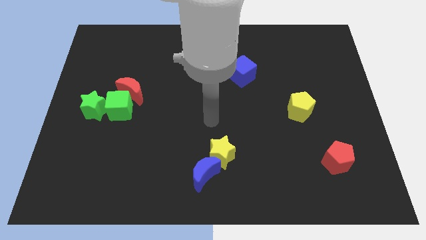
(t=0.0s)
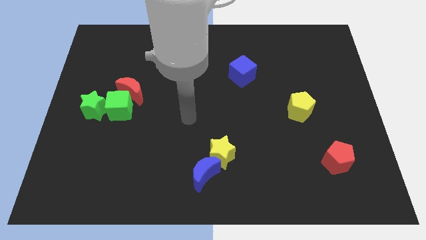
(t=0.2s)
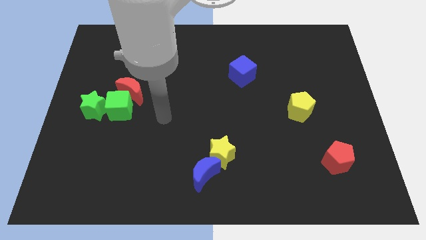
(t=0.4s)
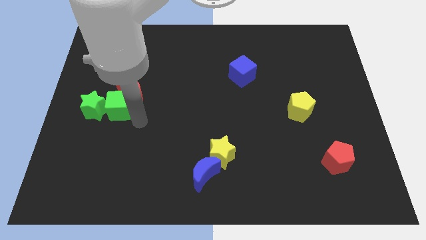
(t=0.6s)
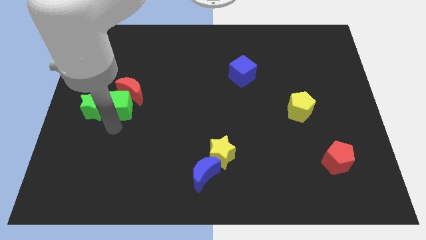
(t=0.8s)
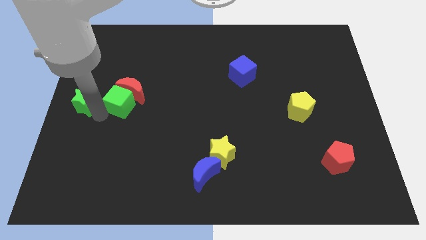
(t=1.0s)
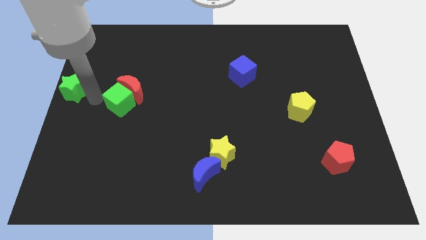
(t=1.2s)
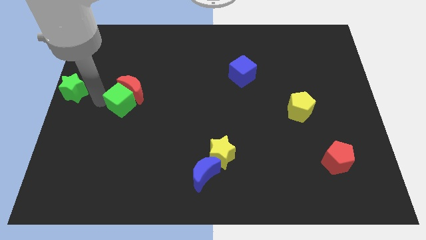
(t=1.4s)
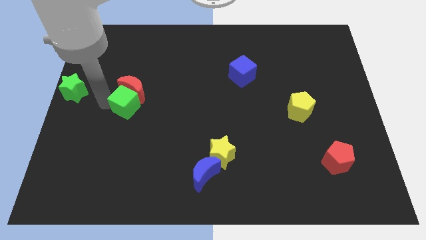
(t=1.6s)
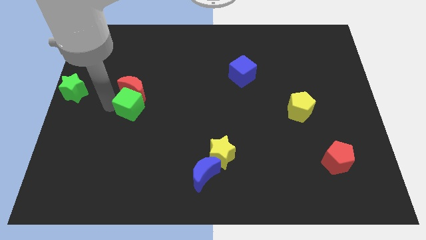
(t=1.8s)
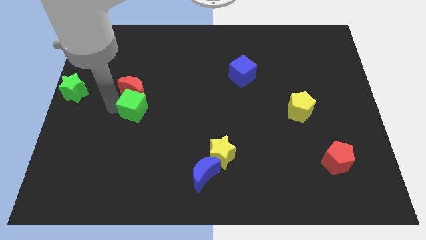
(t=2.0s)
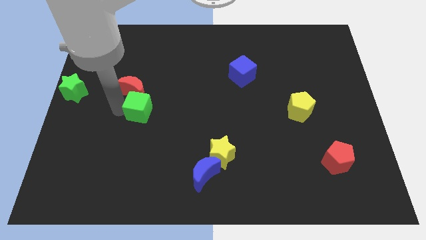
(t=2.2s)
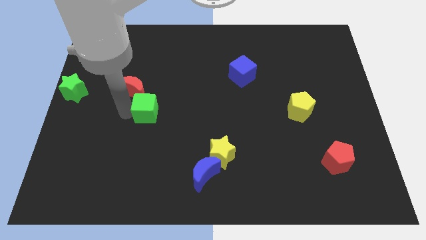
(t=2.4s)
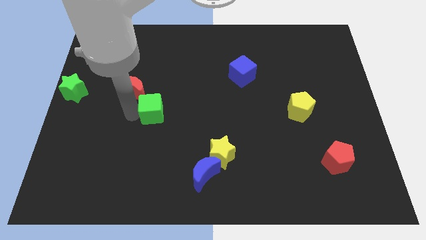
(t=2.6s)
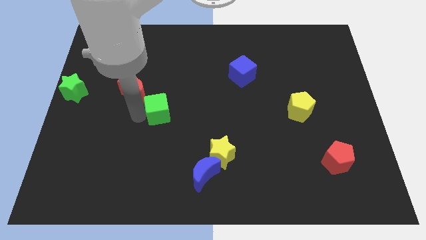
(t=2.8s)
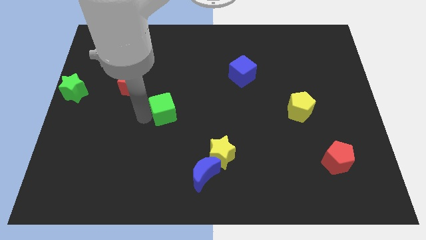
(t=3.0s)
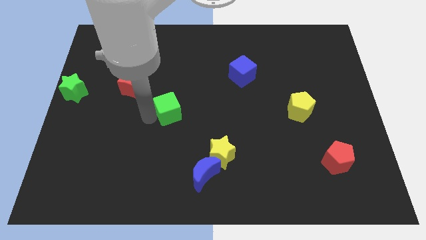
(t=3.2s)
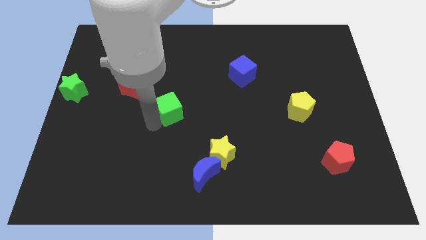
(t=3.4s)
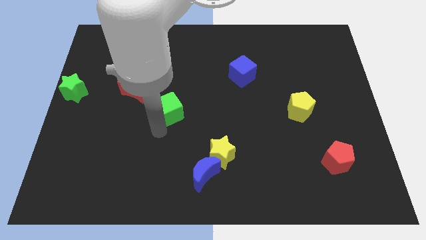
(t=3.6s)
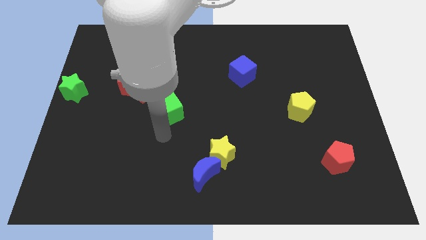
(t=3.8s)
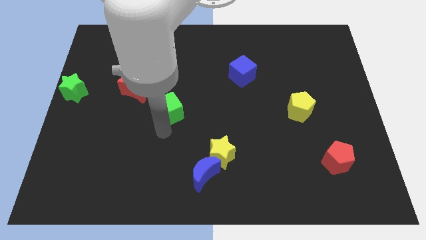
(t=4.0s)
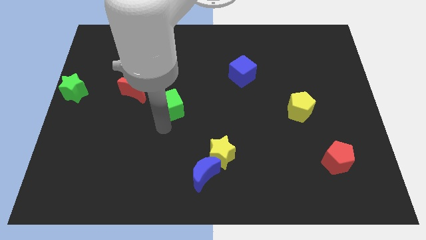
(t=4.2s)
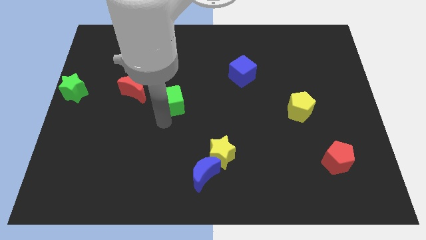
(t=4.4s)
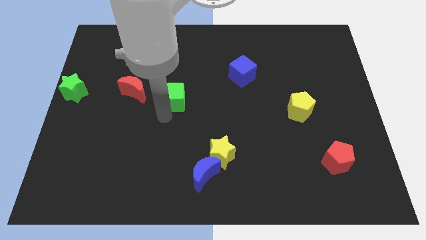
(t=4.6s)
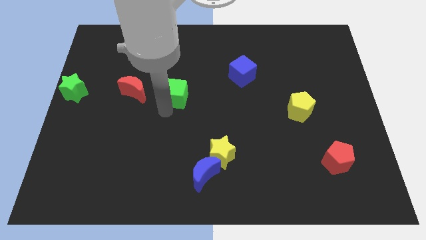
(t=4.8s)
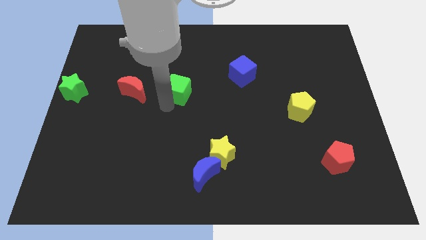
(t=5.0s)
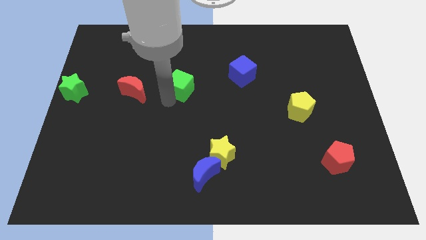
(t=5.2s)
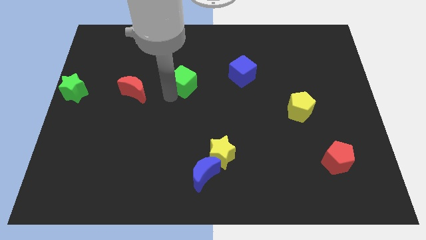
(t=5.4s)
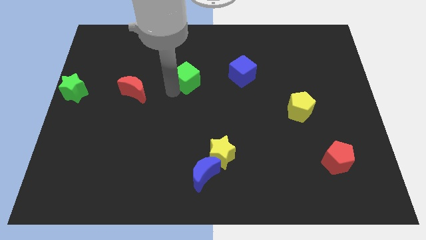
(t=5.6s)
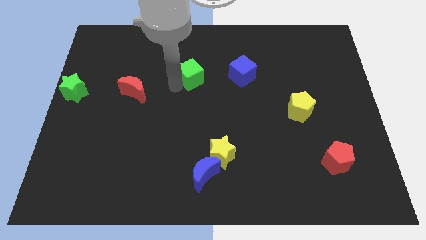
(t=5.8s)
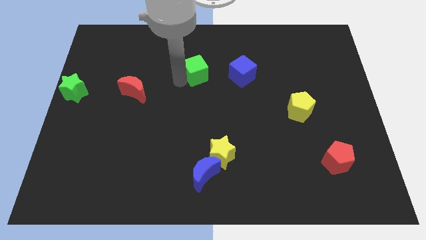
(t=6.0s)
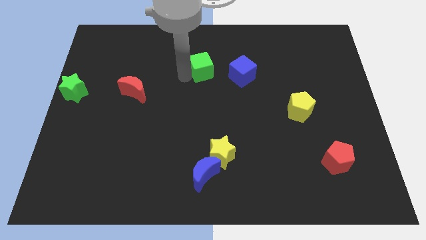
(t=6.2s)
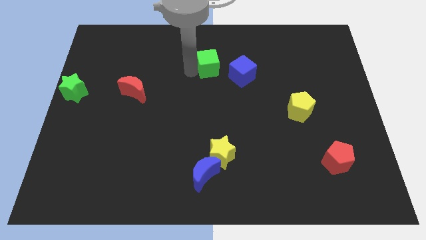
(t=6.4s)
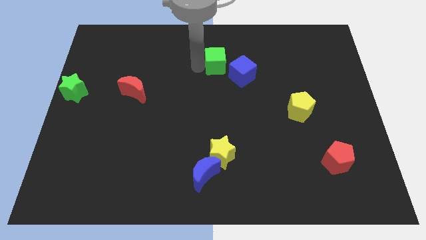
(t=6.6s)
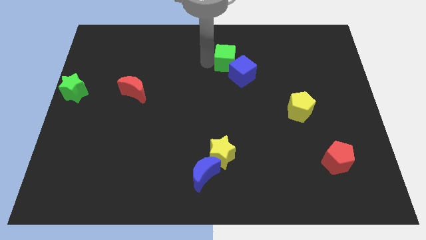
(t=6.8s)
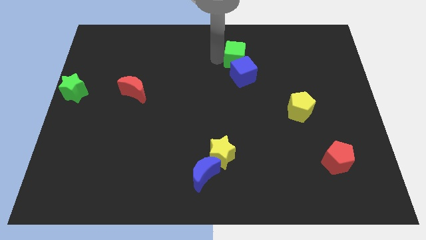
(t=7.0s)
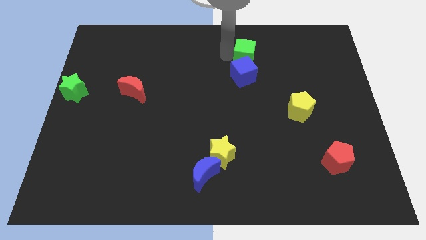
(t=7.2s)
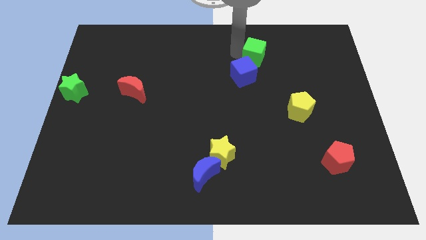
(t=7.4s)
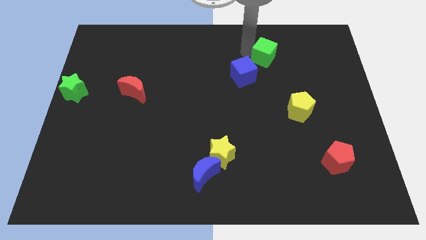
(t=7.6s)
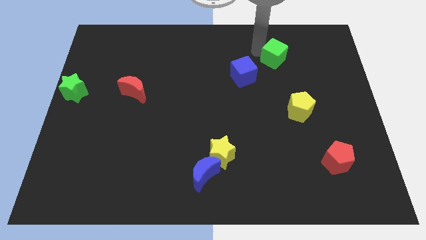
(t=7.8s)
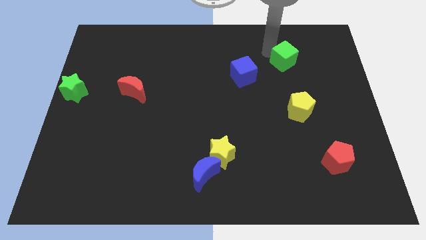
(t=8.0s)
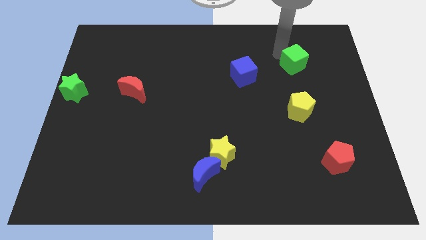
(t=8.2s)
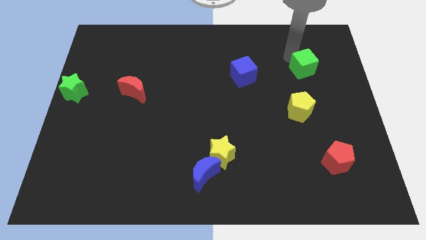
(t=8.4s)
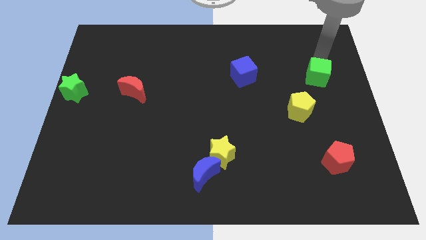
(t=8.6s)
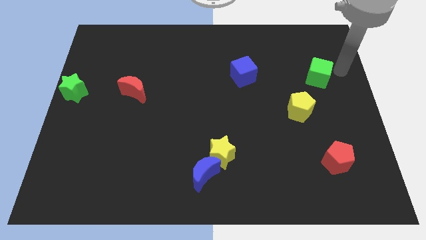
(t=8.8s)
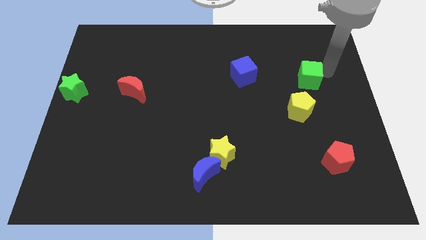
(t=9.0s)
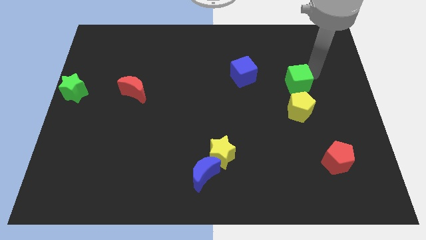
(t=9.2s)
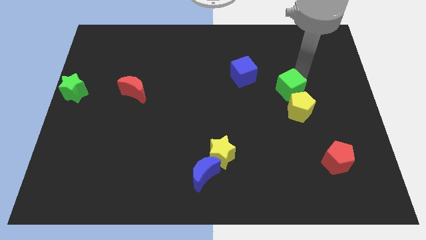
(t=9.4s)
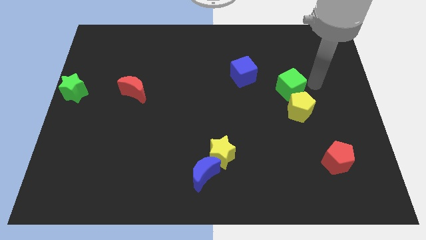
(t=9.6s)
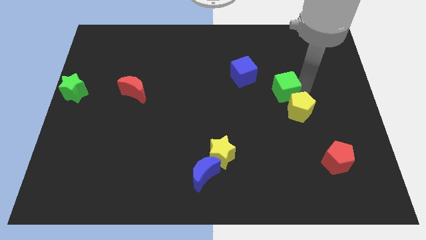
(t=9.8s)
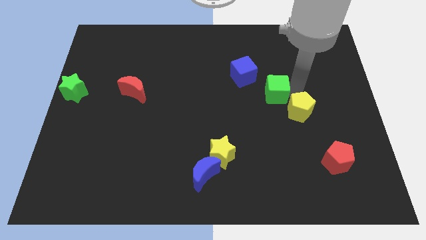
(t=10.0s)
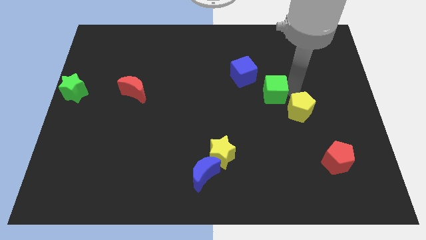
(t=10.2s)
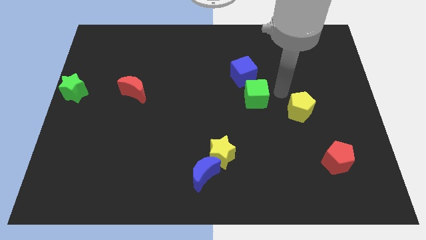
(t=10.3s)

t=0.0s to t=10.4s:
move the green cube to the bottom side of the blue cube

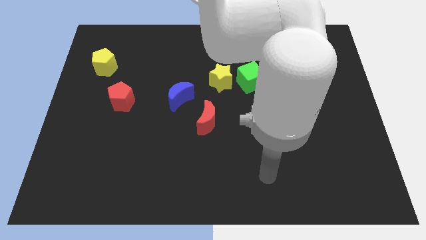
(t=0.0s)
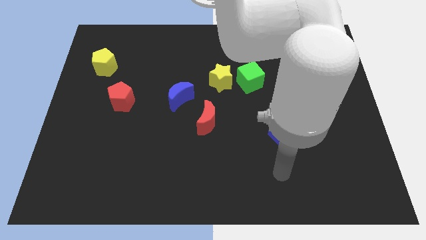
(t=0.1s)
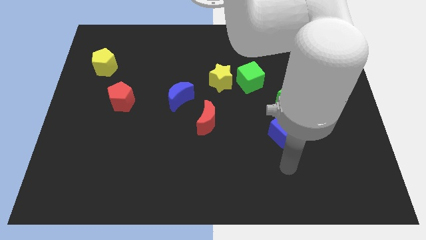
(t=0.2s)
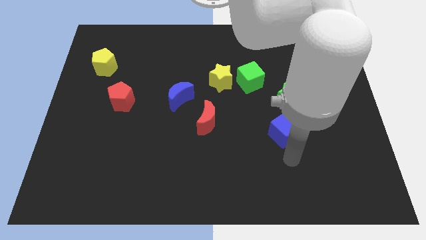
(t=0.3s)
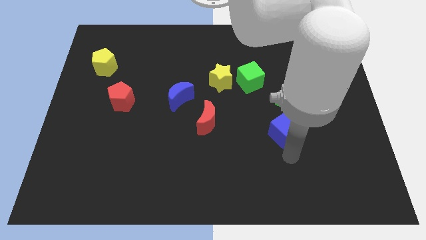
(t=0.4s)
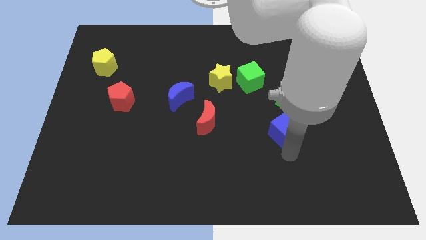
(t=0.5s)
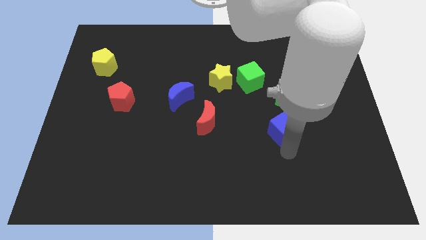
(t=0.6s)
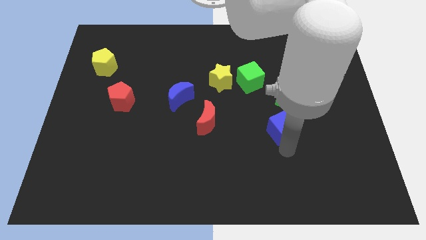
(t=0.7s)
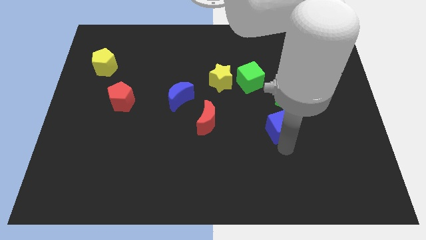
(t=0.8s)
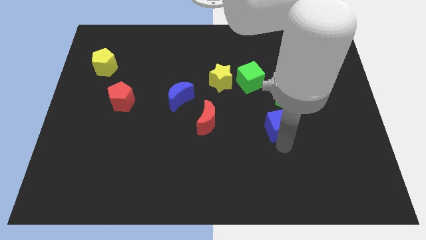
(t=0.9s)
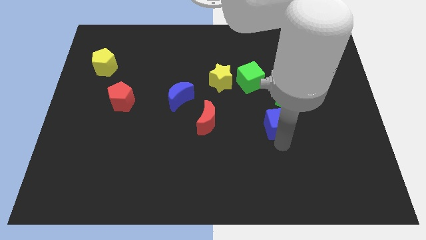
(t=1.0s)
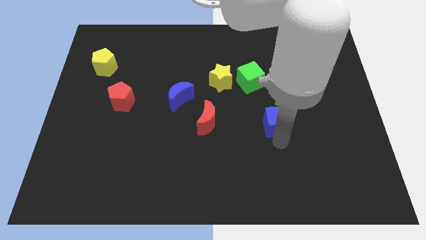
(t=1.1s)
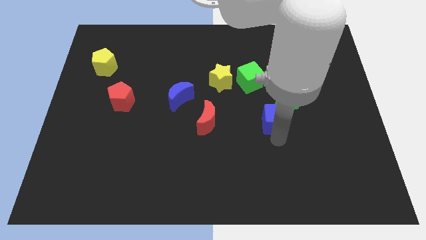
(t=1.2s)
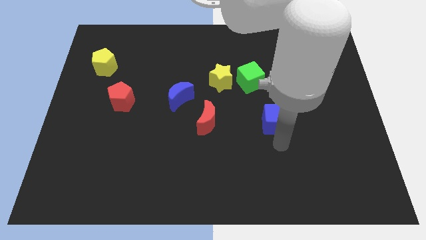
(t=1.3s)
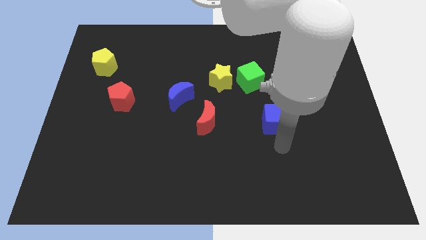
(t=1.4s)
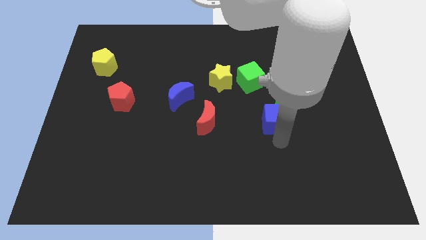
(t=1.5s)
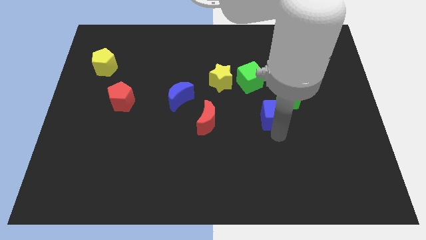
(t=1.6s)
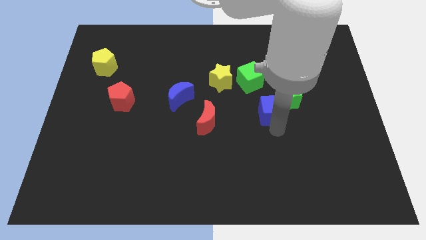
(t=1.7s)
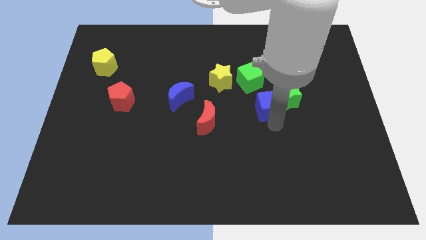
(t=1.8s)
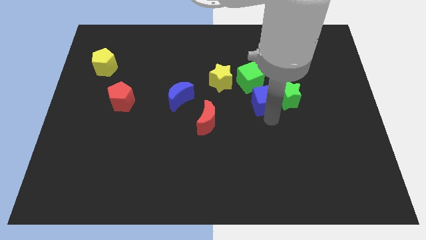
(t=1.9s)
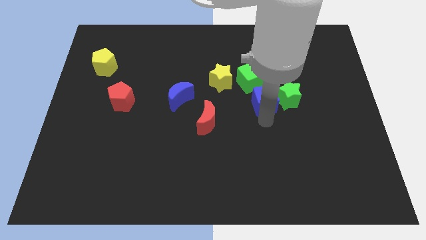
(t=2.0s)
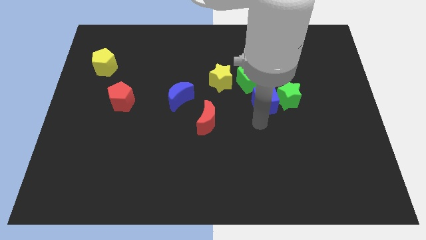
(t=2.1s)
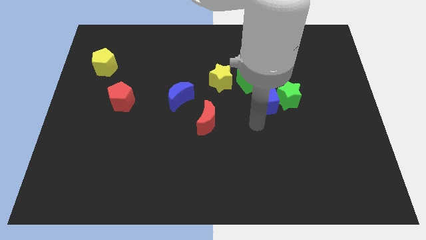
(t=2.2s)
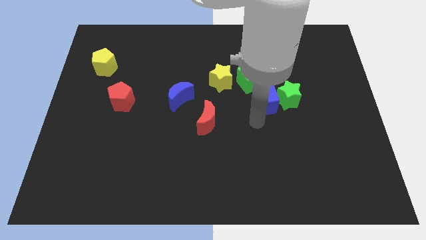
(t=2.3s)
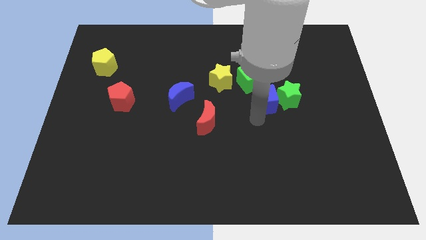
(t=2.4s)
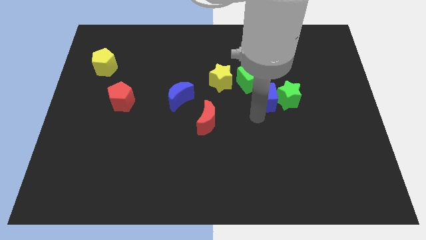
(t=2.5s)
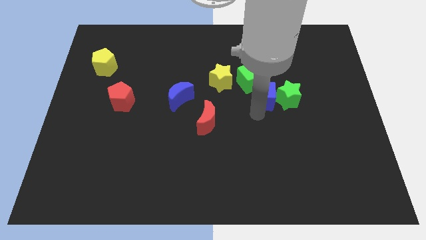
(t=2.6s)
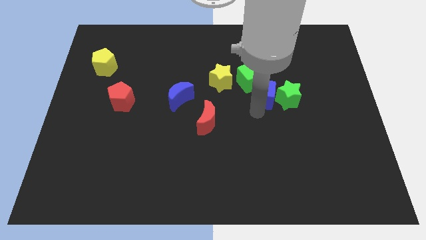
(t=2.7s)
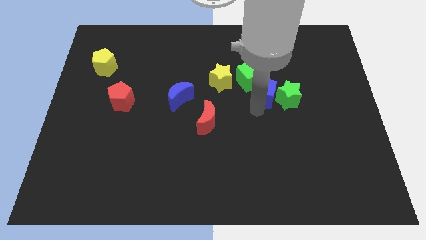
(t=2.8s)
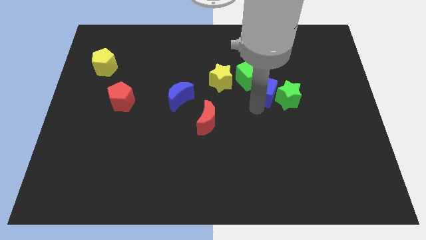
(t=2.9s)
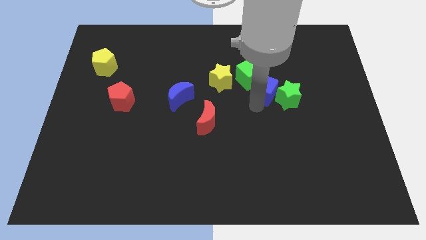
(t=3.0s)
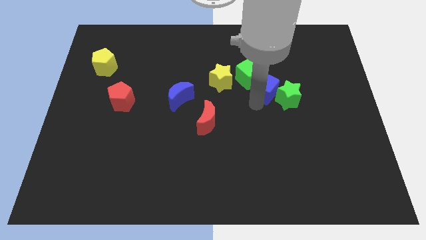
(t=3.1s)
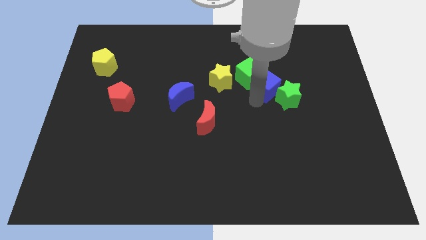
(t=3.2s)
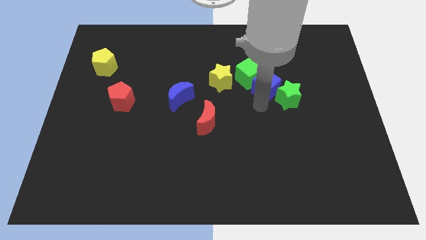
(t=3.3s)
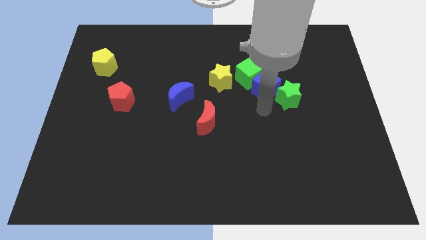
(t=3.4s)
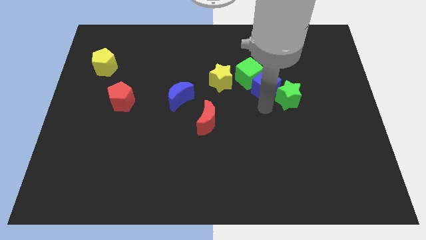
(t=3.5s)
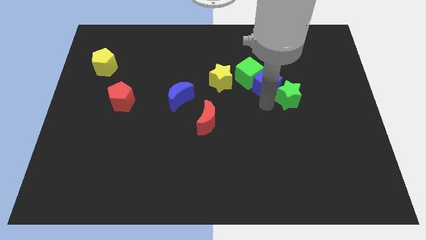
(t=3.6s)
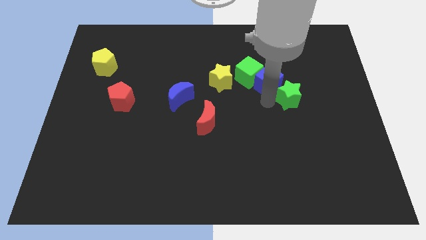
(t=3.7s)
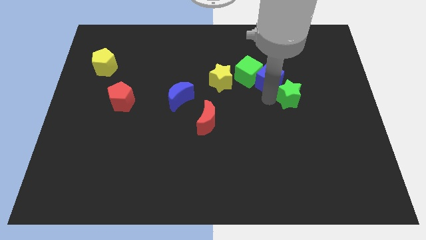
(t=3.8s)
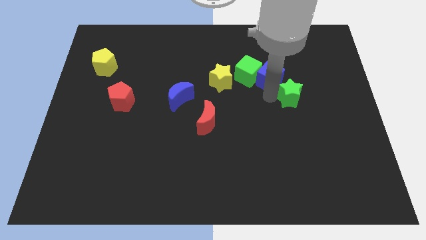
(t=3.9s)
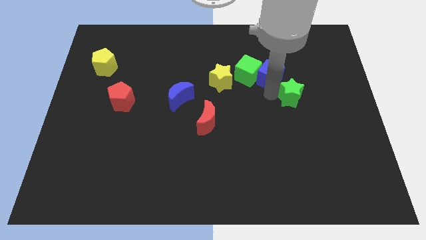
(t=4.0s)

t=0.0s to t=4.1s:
push the blue cube diagonally up and to the right of the green cube
